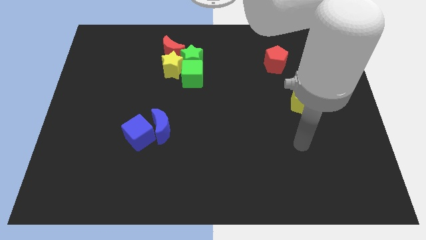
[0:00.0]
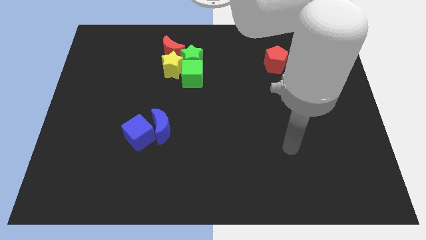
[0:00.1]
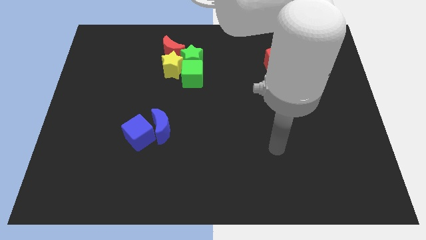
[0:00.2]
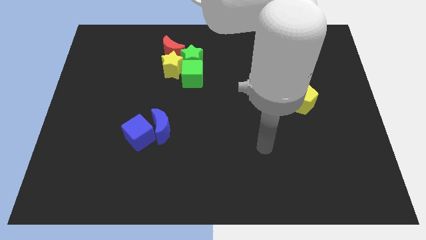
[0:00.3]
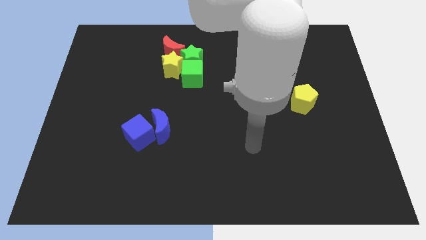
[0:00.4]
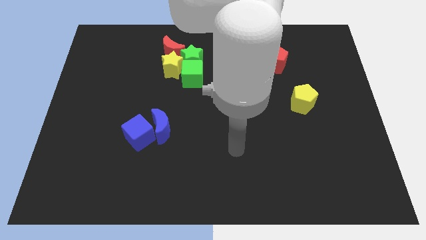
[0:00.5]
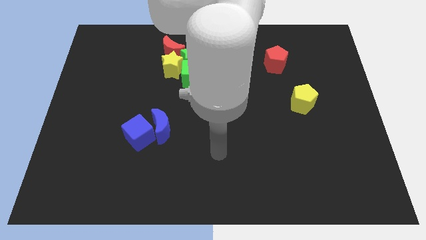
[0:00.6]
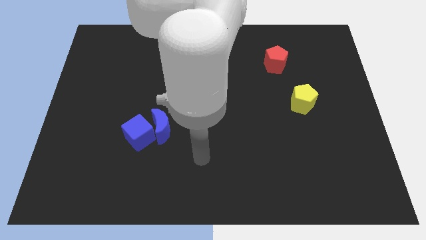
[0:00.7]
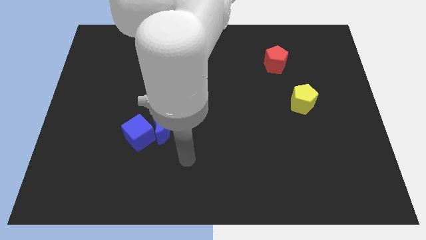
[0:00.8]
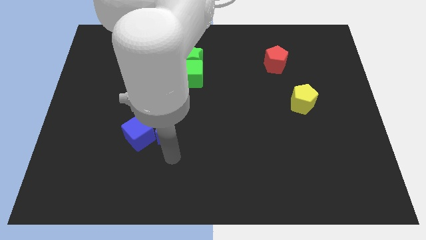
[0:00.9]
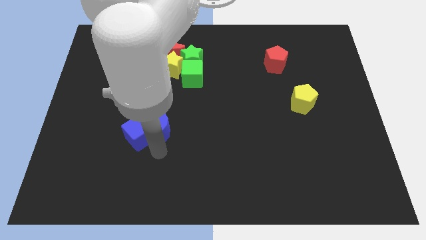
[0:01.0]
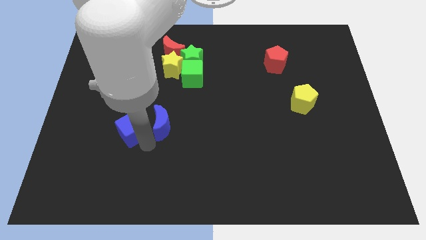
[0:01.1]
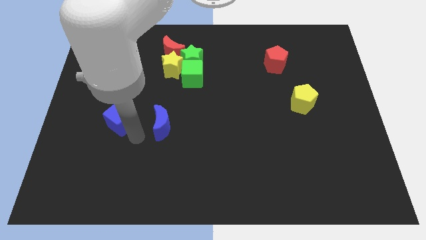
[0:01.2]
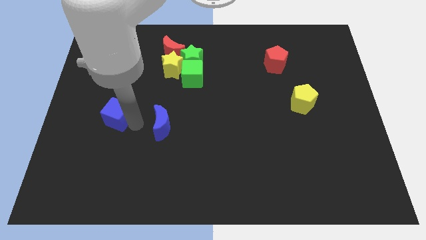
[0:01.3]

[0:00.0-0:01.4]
pull the blue moon apart from the blue cube

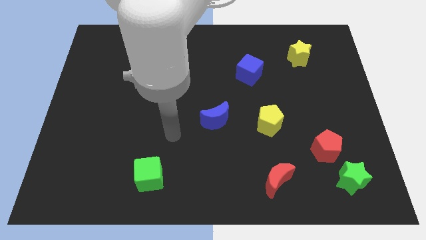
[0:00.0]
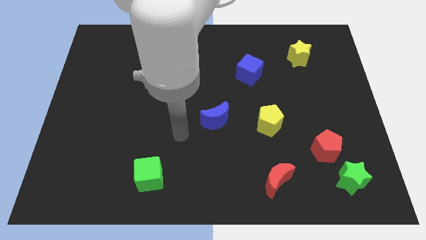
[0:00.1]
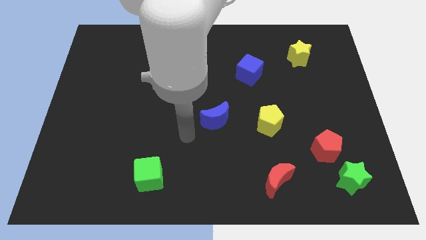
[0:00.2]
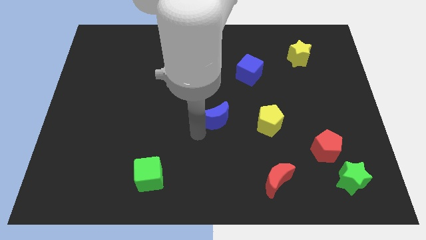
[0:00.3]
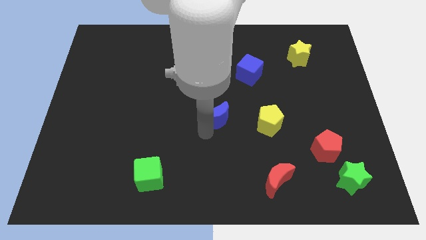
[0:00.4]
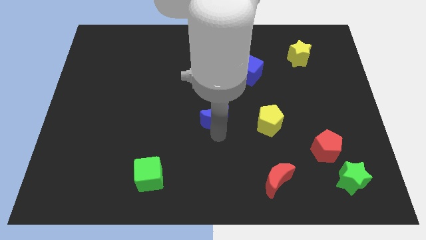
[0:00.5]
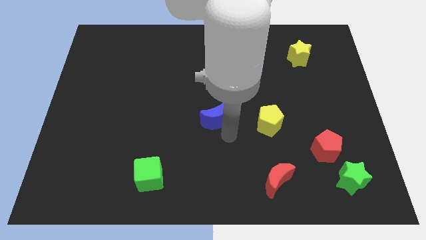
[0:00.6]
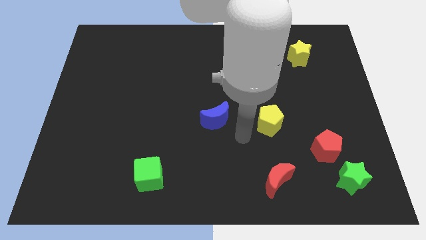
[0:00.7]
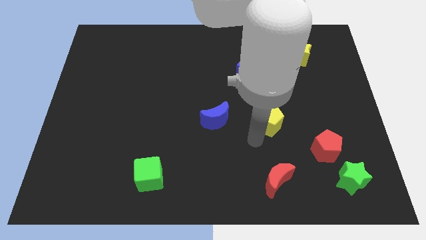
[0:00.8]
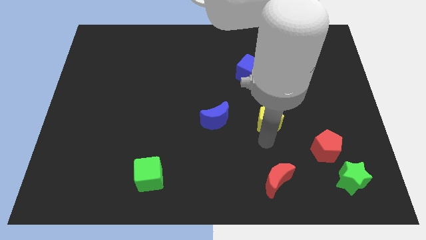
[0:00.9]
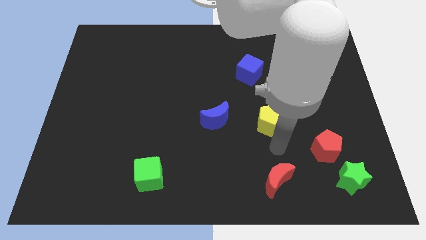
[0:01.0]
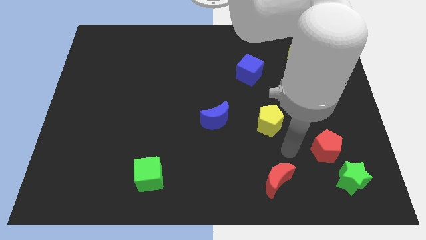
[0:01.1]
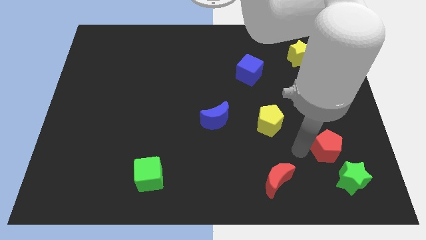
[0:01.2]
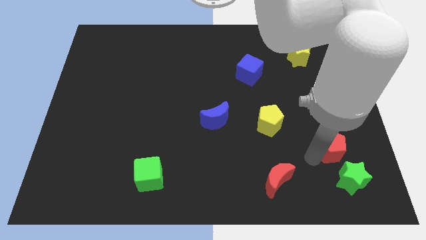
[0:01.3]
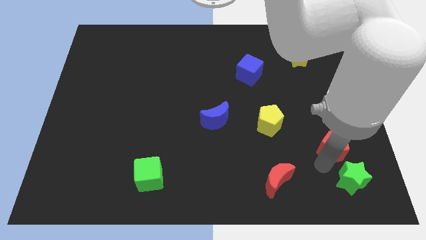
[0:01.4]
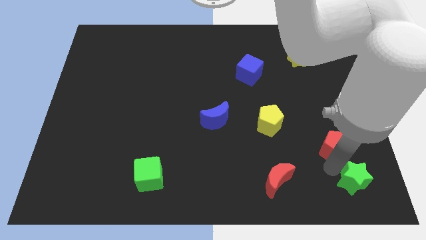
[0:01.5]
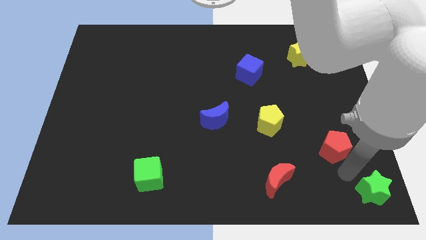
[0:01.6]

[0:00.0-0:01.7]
pull the red pentagon apart from the green star

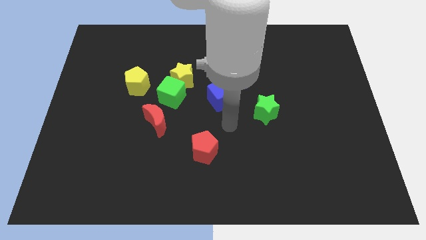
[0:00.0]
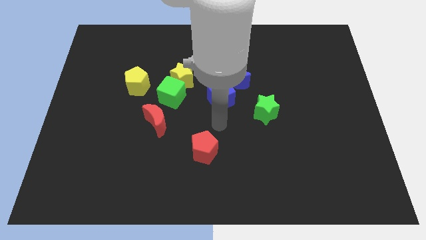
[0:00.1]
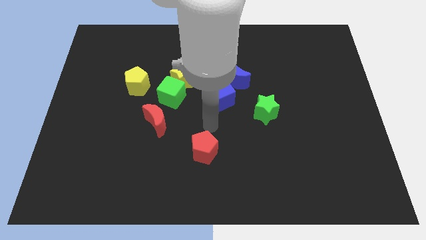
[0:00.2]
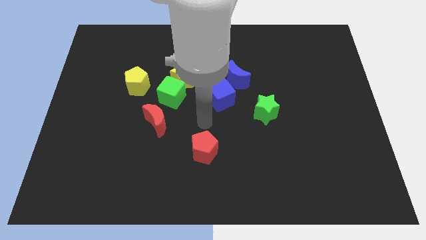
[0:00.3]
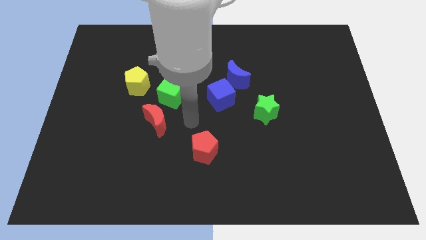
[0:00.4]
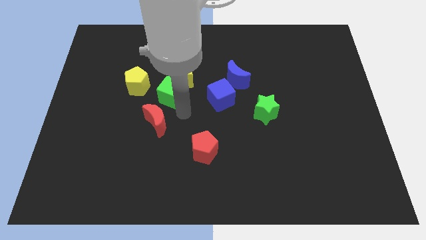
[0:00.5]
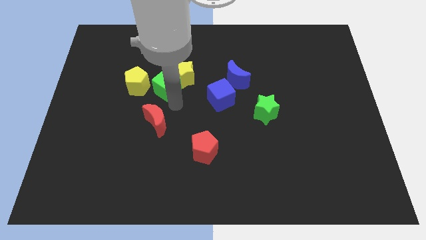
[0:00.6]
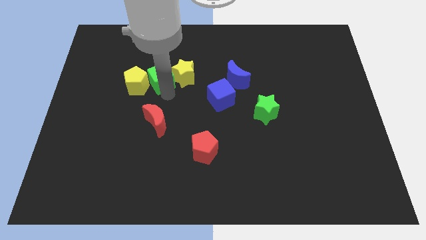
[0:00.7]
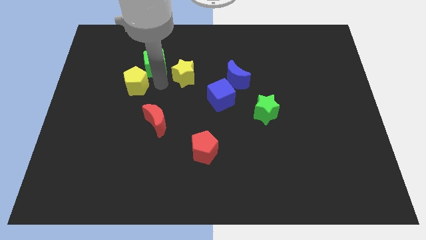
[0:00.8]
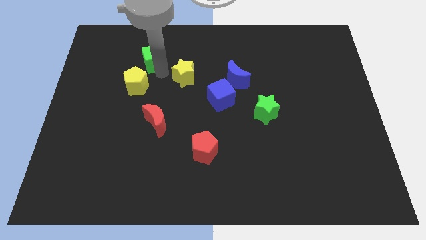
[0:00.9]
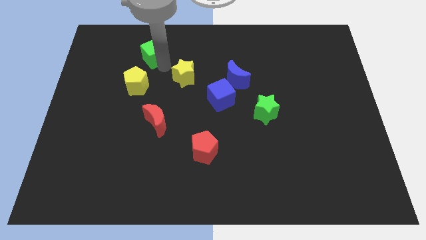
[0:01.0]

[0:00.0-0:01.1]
separate the yellow star from the green cube

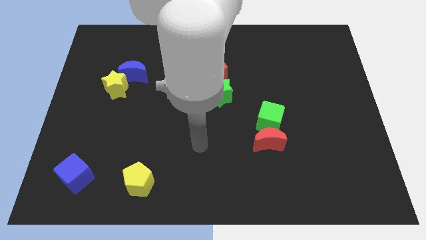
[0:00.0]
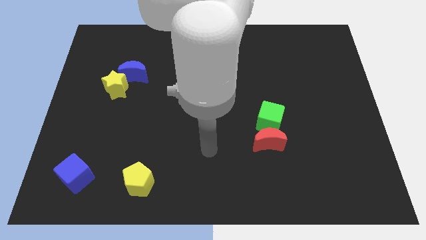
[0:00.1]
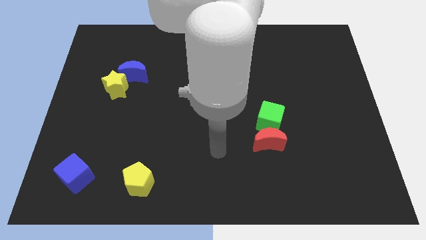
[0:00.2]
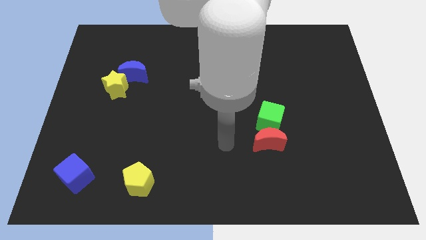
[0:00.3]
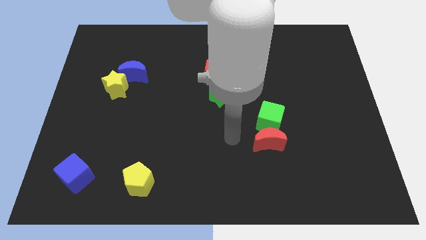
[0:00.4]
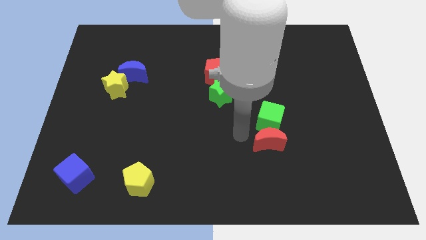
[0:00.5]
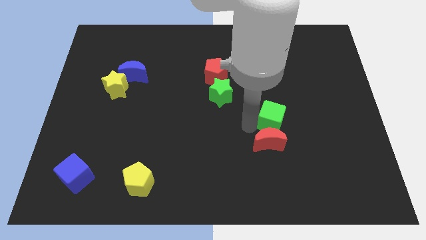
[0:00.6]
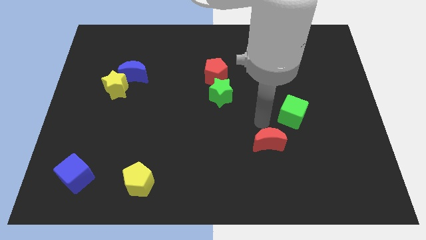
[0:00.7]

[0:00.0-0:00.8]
separate the red moon from the green cube

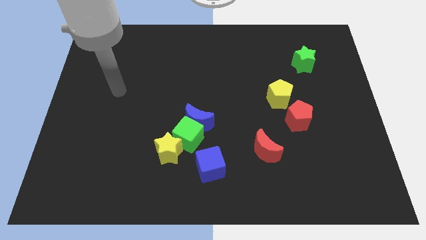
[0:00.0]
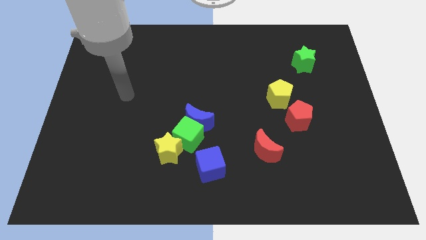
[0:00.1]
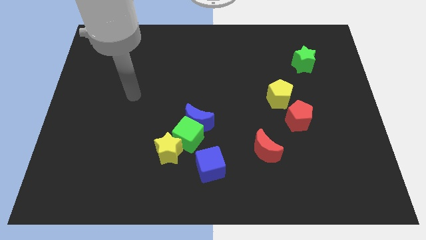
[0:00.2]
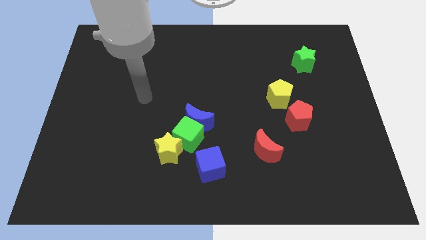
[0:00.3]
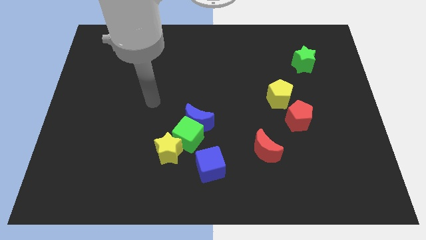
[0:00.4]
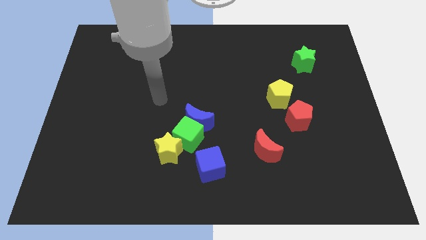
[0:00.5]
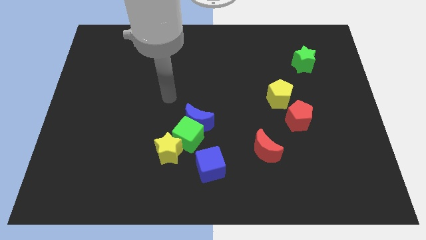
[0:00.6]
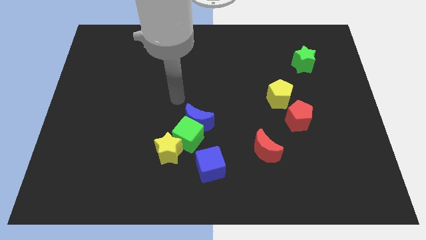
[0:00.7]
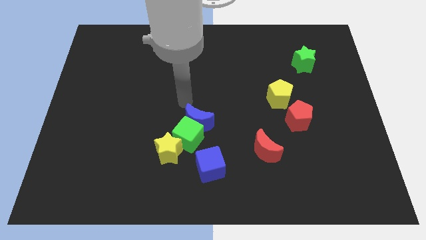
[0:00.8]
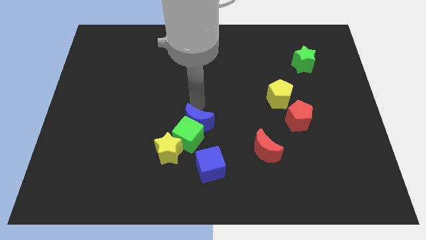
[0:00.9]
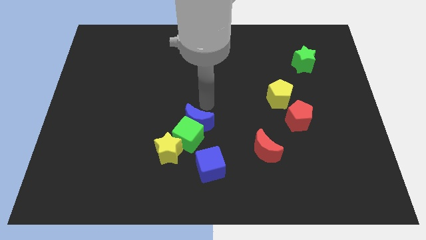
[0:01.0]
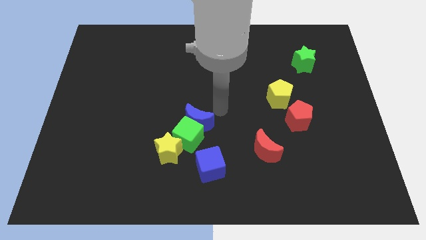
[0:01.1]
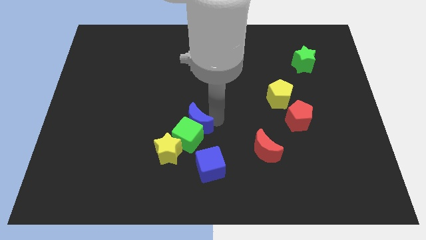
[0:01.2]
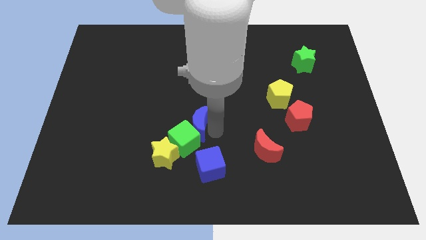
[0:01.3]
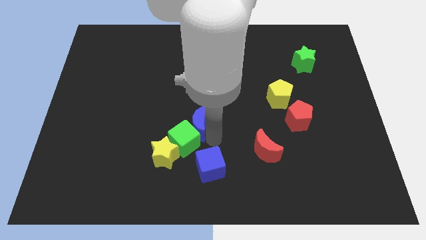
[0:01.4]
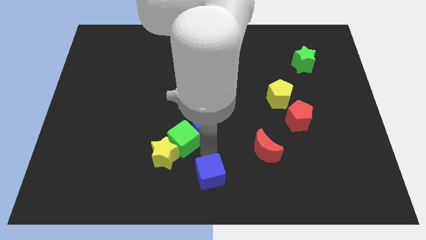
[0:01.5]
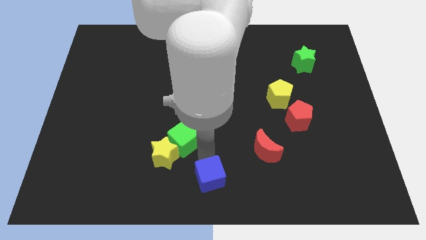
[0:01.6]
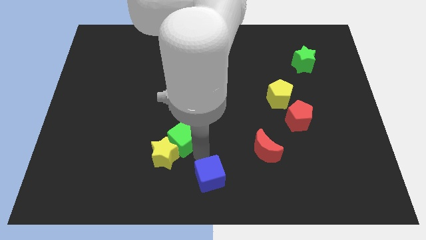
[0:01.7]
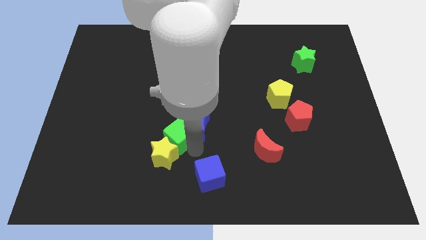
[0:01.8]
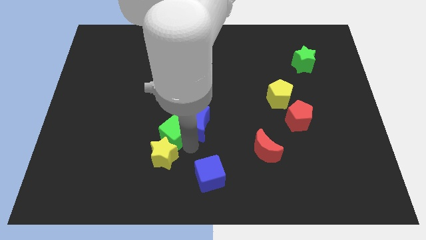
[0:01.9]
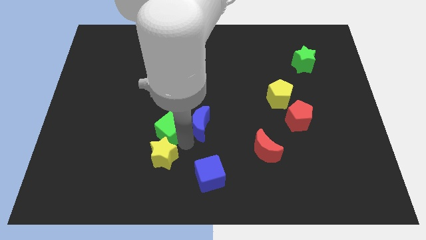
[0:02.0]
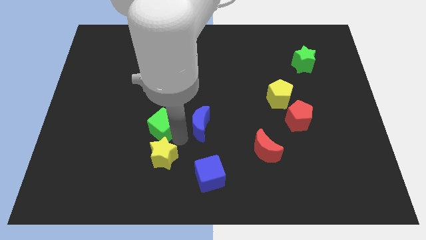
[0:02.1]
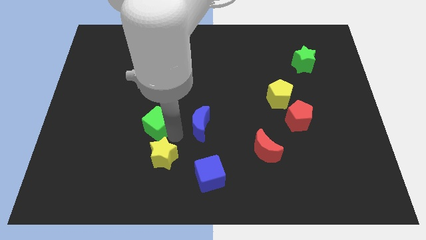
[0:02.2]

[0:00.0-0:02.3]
pull the green cube apart from the clump

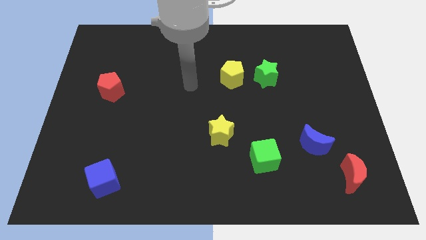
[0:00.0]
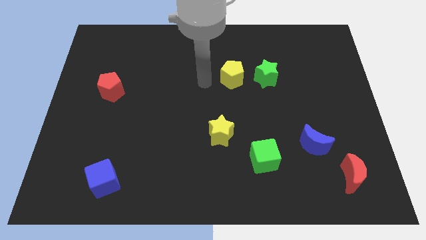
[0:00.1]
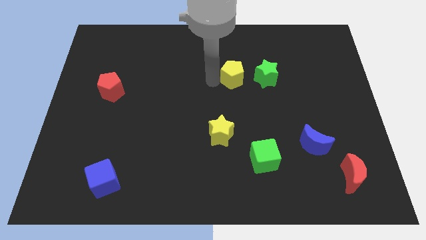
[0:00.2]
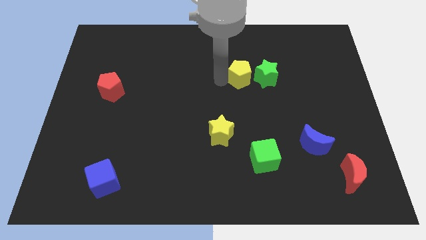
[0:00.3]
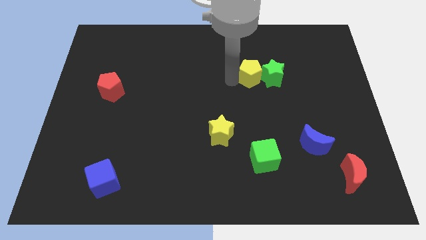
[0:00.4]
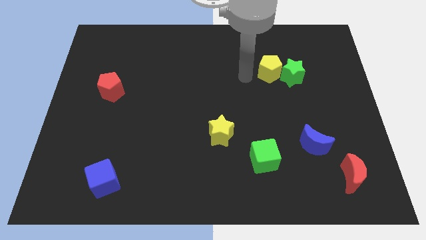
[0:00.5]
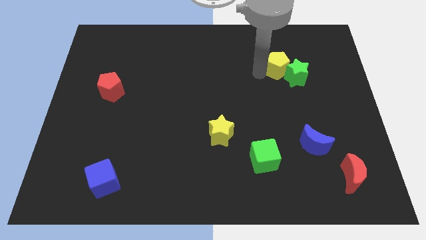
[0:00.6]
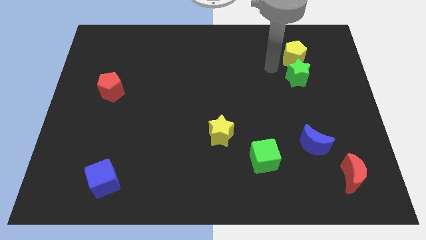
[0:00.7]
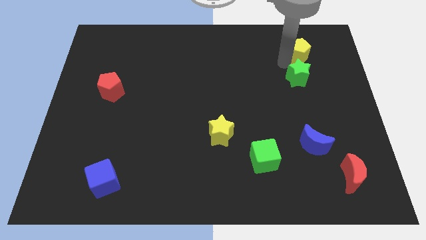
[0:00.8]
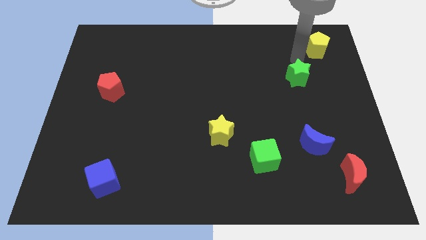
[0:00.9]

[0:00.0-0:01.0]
move the green star away from the yellow pentagon

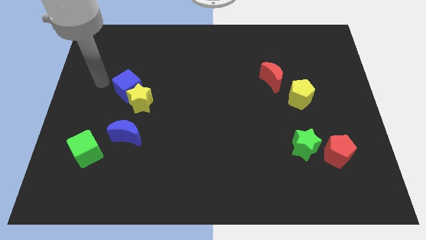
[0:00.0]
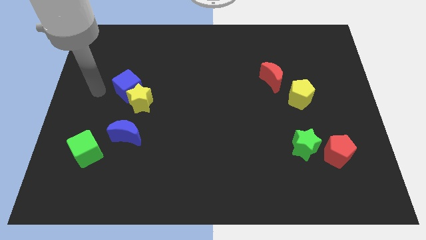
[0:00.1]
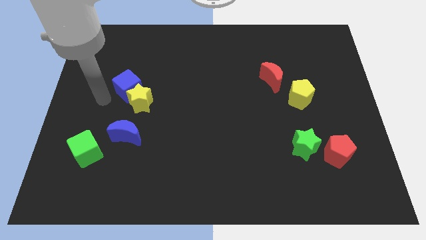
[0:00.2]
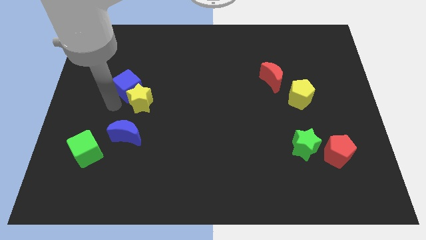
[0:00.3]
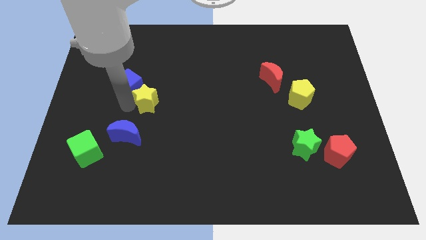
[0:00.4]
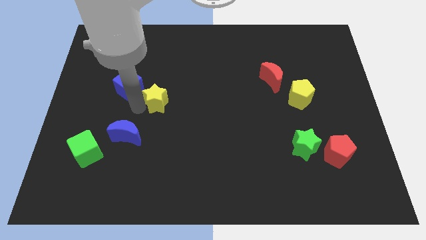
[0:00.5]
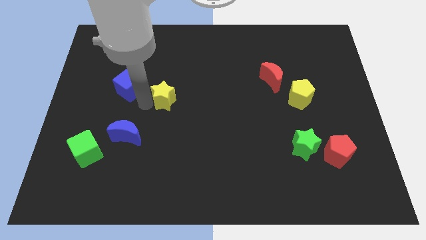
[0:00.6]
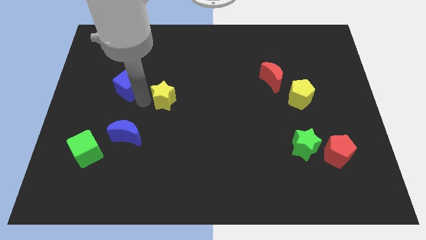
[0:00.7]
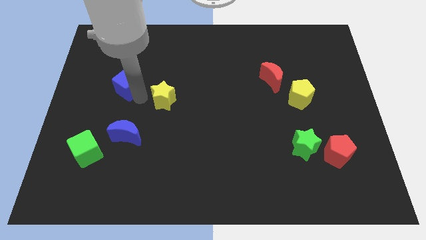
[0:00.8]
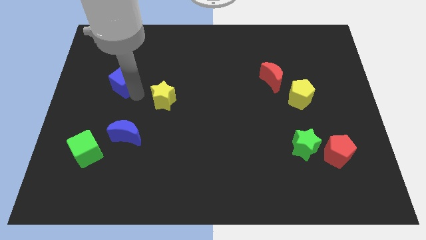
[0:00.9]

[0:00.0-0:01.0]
pull the blue cube apart from the yellow star

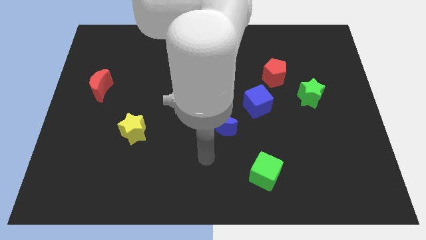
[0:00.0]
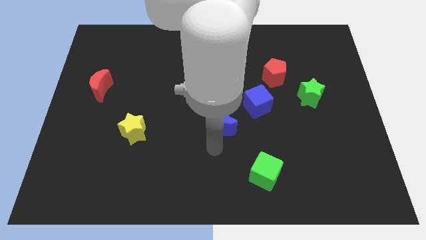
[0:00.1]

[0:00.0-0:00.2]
move the blue moon away from the blue cube
